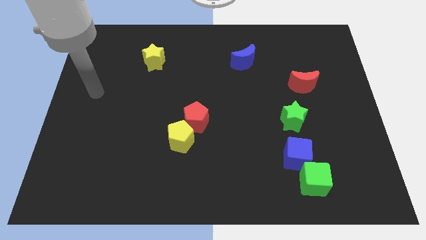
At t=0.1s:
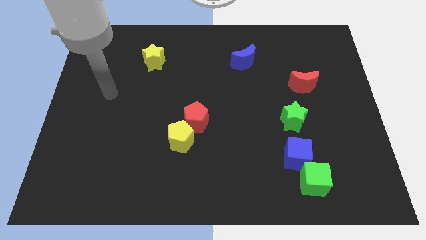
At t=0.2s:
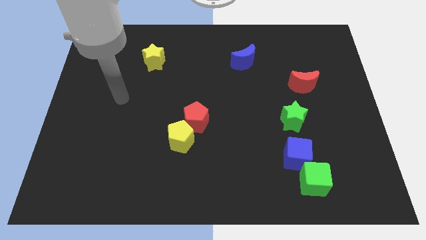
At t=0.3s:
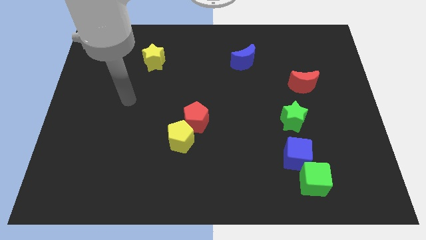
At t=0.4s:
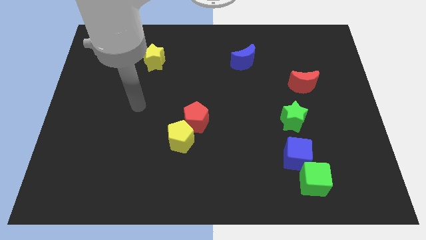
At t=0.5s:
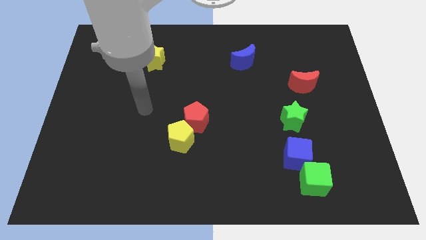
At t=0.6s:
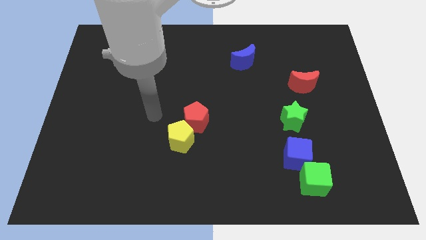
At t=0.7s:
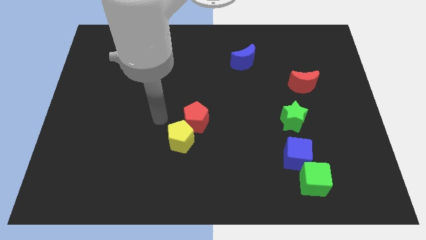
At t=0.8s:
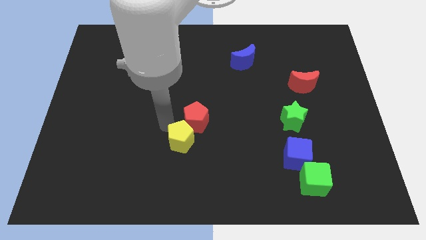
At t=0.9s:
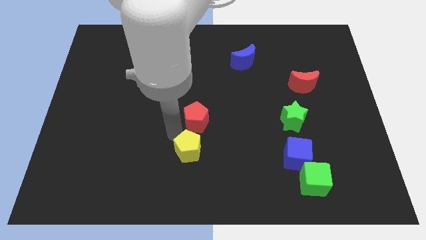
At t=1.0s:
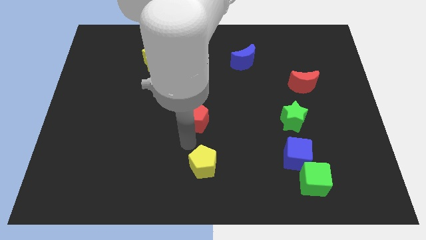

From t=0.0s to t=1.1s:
pull the red pentagon apart from the yellow pentagon

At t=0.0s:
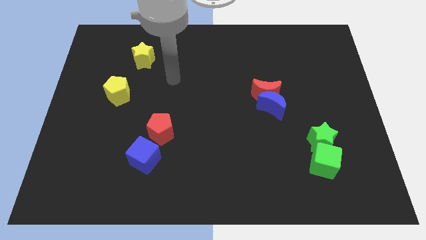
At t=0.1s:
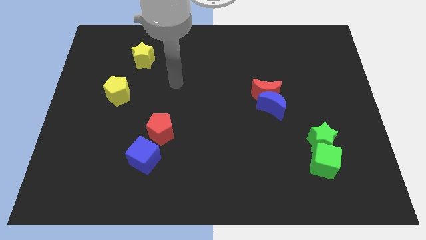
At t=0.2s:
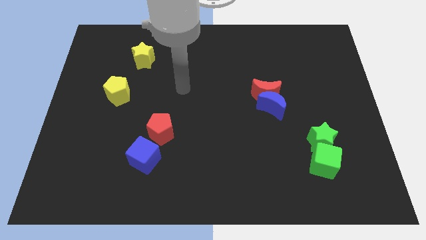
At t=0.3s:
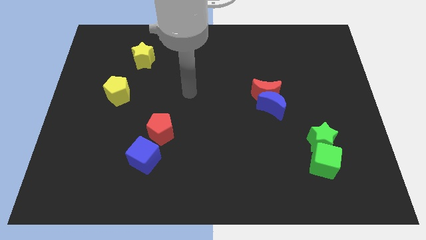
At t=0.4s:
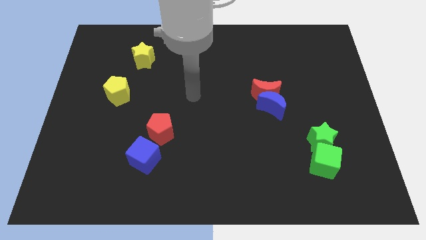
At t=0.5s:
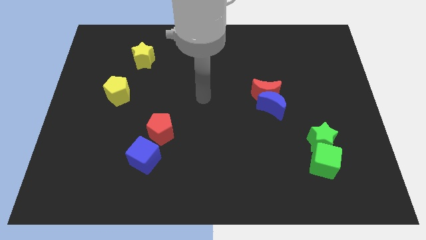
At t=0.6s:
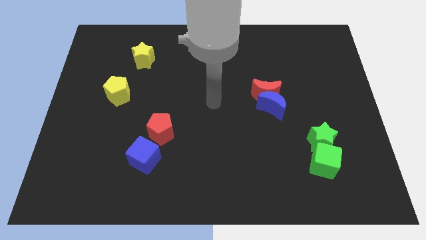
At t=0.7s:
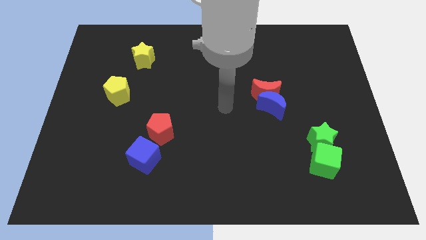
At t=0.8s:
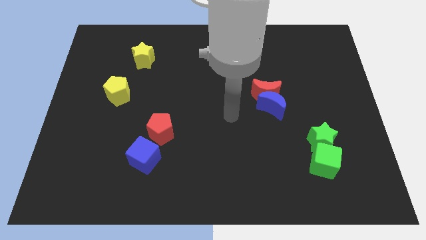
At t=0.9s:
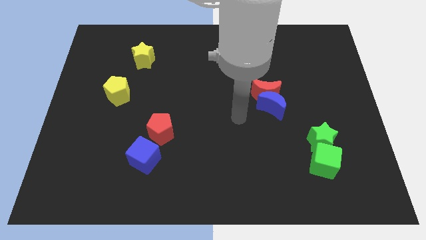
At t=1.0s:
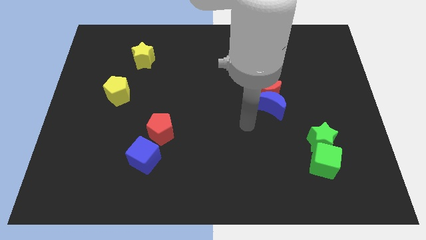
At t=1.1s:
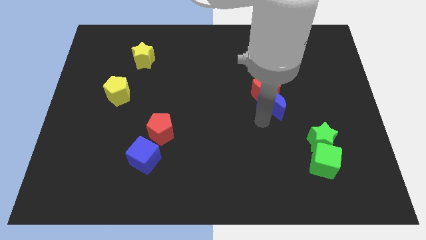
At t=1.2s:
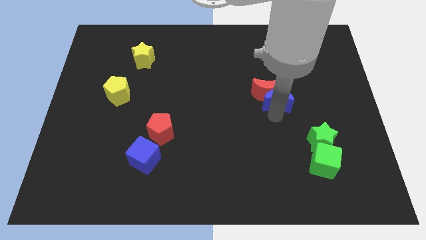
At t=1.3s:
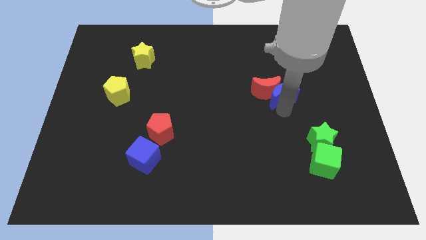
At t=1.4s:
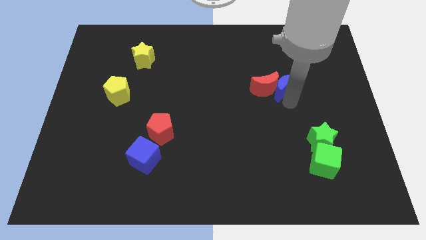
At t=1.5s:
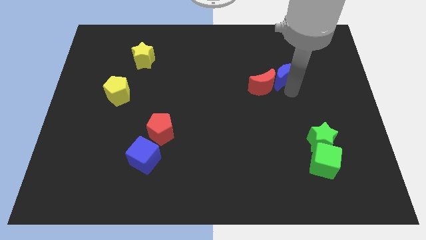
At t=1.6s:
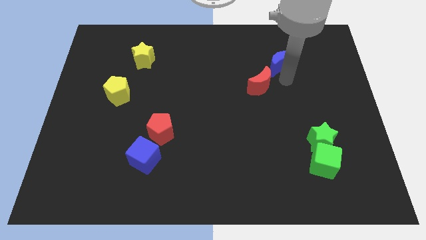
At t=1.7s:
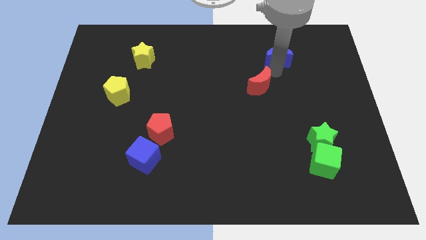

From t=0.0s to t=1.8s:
pull the red moon apart from the blue moon

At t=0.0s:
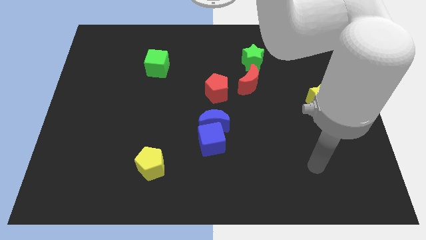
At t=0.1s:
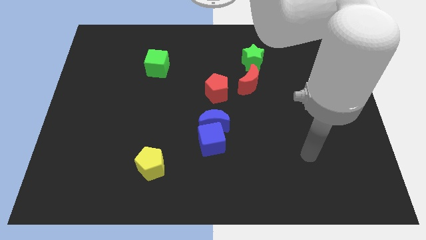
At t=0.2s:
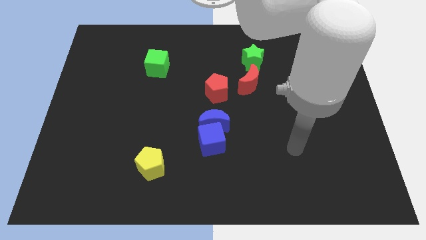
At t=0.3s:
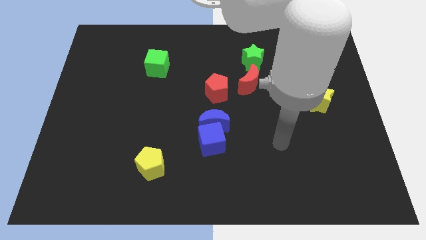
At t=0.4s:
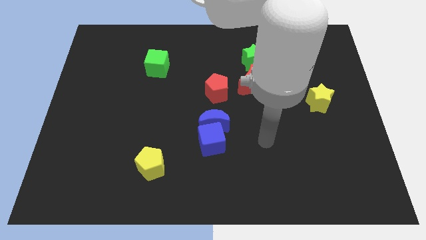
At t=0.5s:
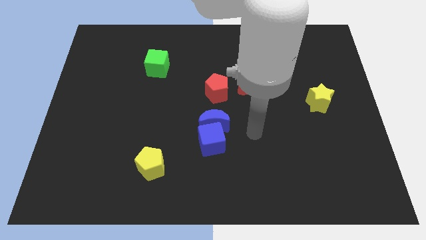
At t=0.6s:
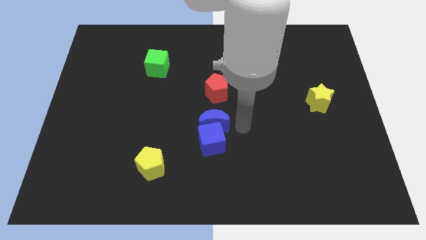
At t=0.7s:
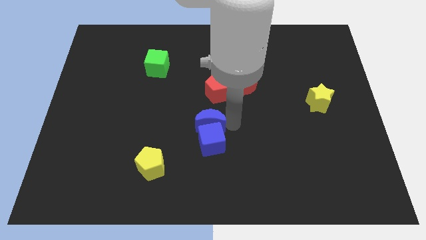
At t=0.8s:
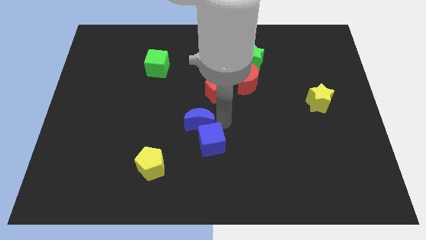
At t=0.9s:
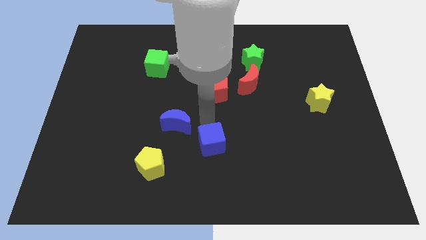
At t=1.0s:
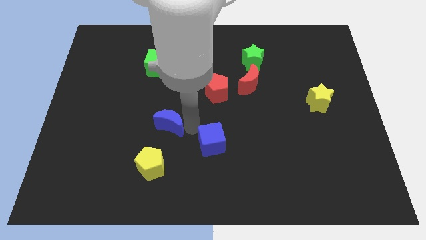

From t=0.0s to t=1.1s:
separate the blue cube from the blue moon

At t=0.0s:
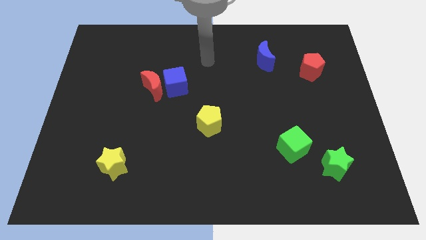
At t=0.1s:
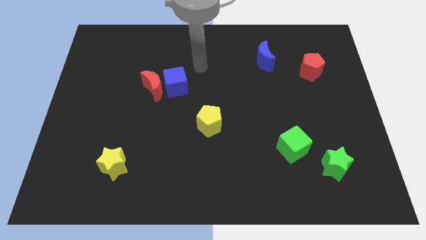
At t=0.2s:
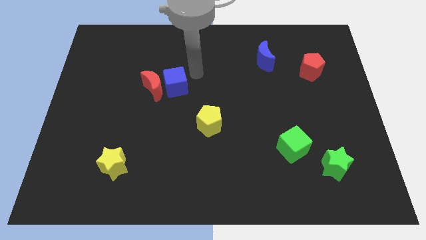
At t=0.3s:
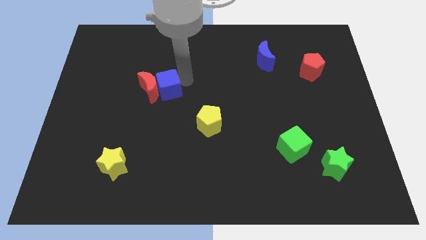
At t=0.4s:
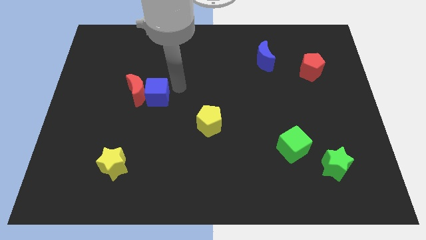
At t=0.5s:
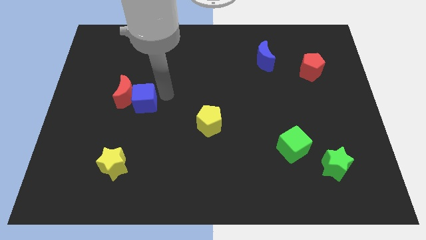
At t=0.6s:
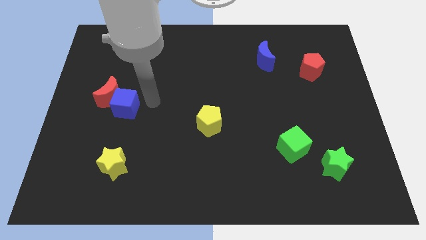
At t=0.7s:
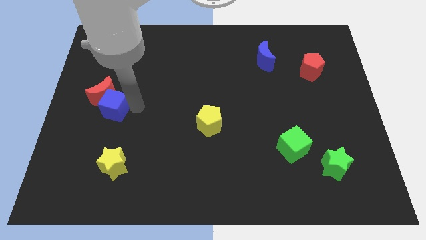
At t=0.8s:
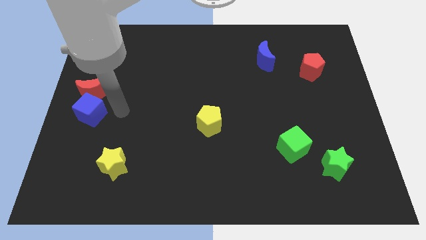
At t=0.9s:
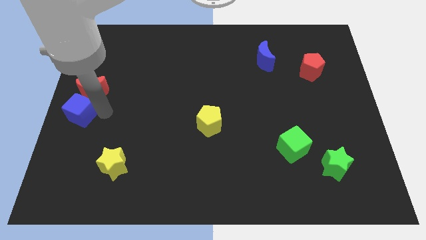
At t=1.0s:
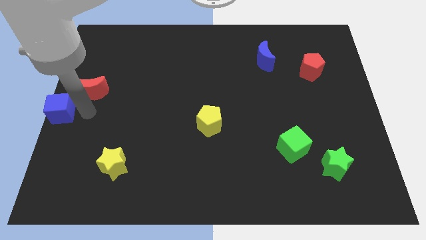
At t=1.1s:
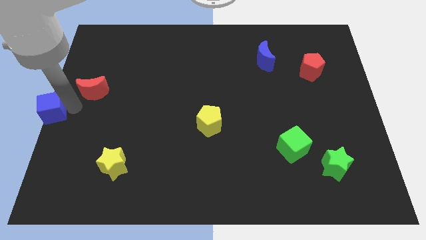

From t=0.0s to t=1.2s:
pull the red moon apart from the blue cube

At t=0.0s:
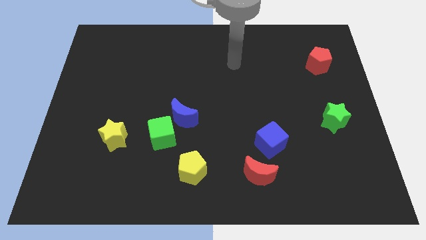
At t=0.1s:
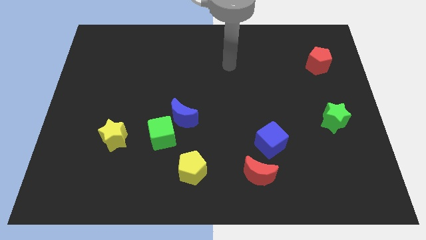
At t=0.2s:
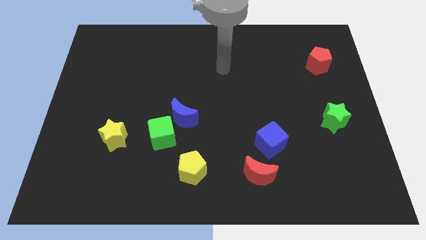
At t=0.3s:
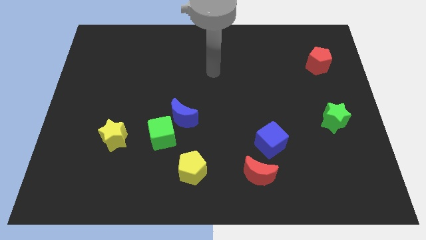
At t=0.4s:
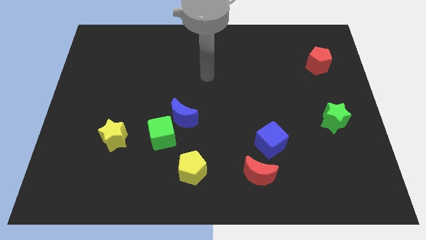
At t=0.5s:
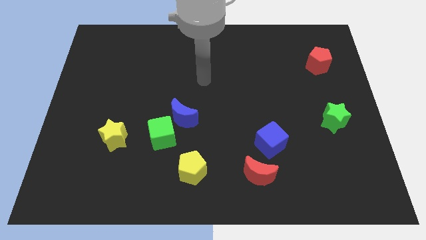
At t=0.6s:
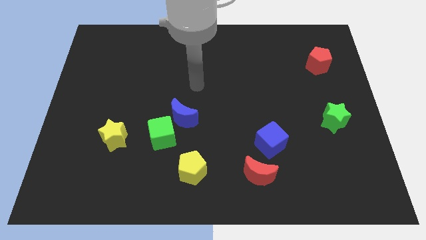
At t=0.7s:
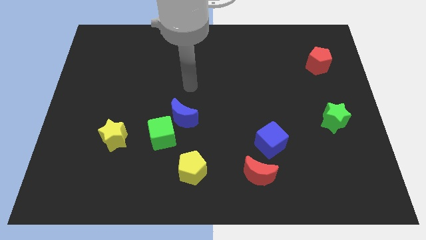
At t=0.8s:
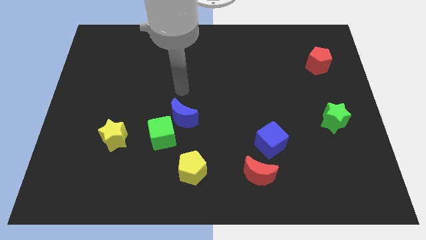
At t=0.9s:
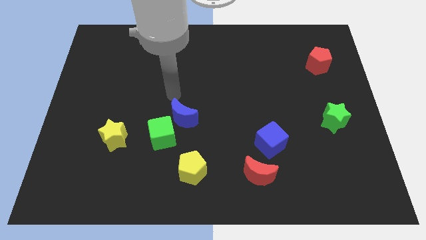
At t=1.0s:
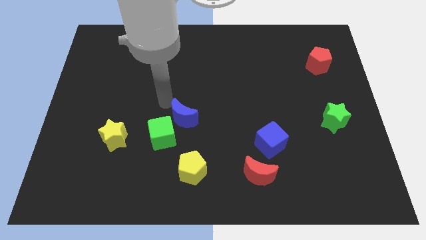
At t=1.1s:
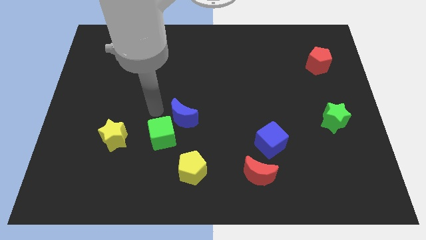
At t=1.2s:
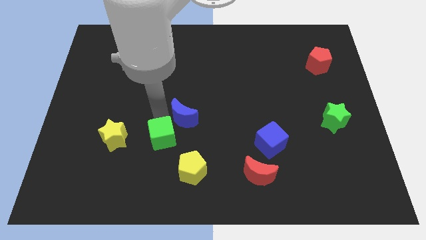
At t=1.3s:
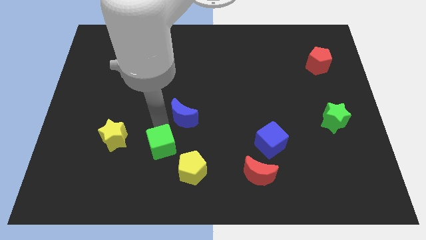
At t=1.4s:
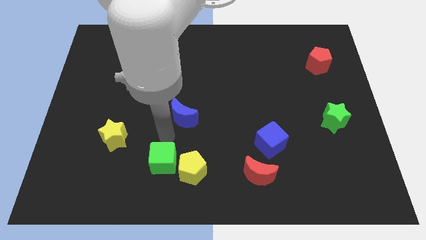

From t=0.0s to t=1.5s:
move the blue moon away from the green cube

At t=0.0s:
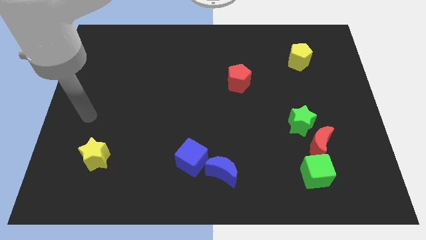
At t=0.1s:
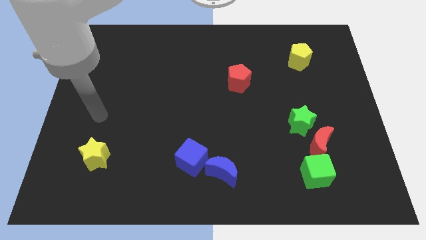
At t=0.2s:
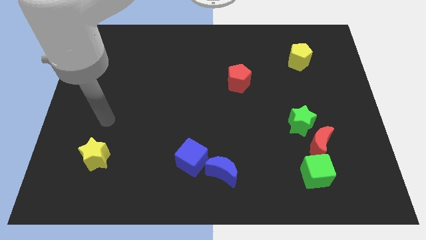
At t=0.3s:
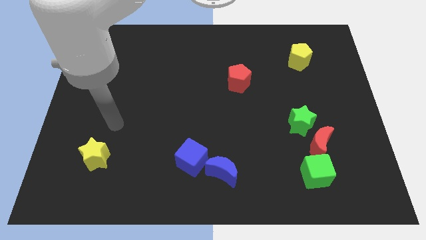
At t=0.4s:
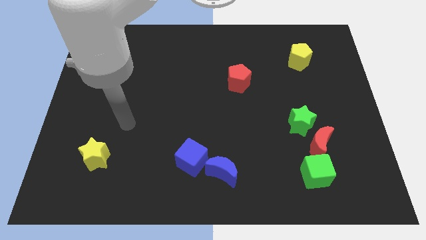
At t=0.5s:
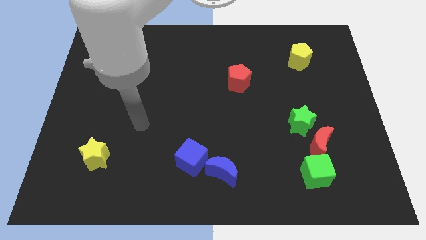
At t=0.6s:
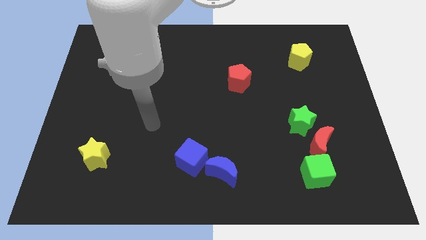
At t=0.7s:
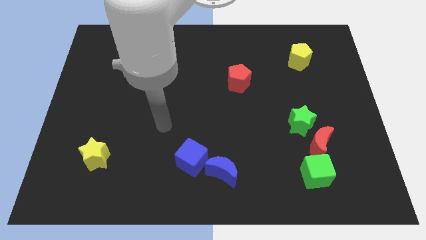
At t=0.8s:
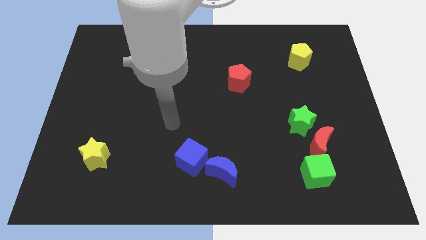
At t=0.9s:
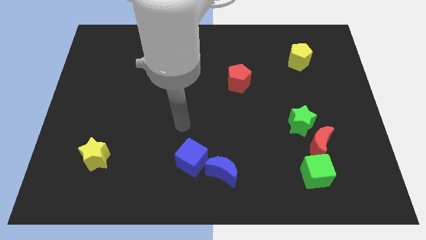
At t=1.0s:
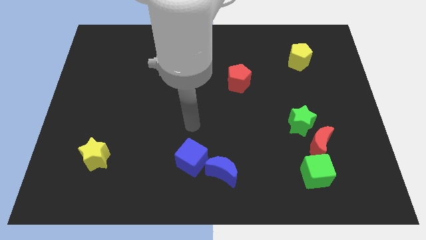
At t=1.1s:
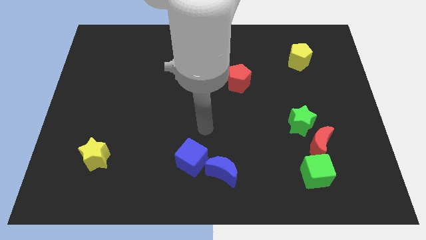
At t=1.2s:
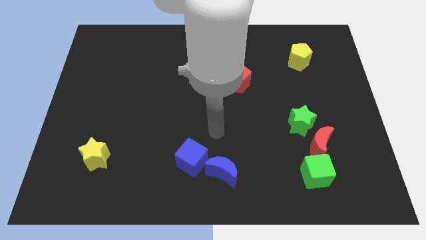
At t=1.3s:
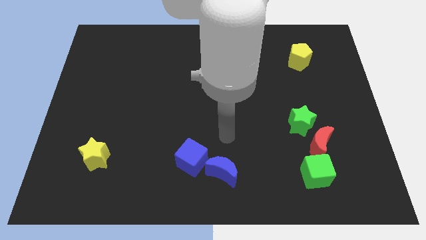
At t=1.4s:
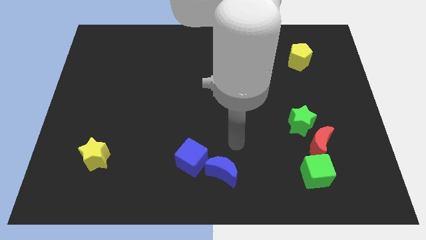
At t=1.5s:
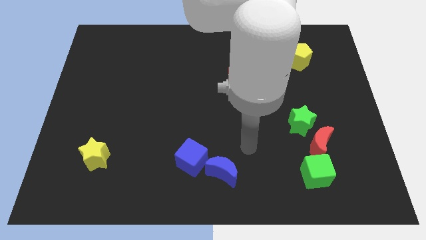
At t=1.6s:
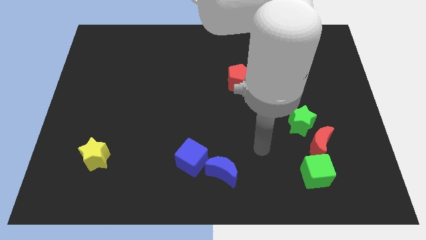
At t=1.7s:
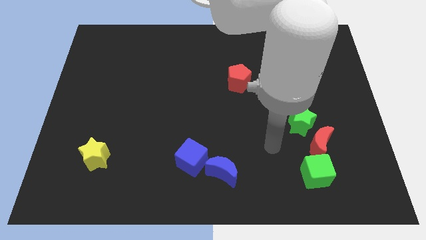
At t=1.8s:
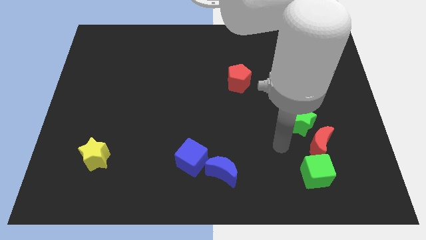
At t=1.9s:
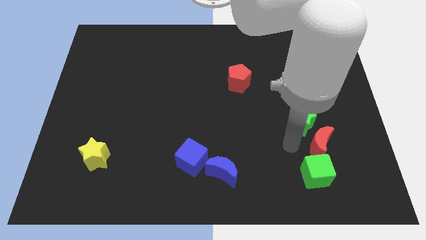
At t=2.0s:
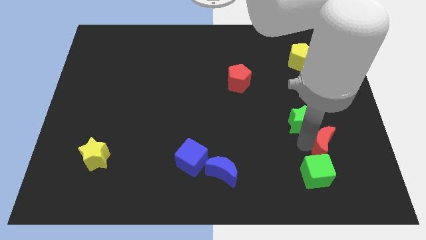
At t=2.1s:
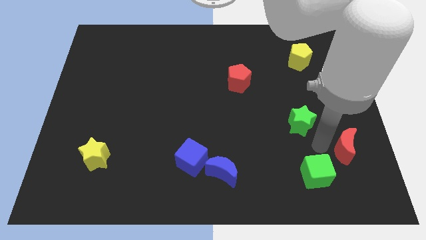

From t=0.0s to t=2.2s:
move the green star away from the red moon

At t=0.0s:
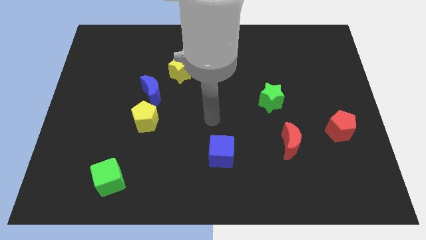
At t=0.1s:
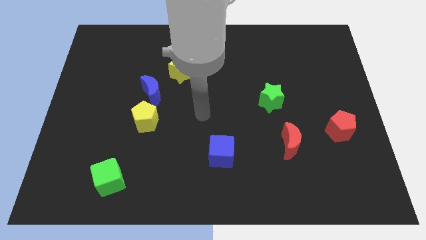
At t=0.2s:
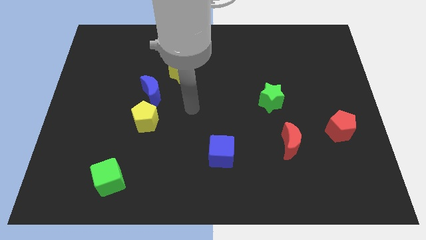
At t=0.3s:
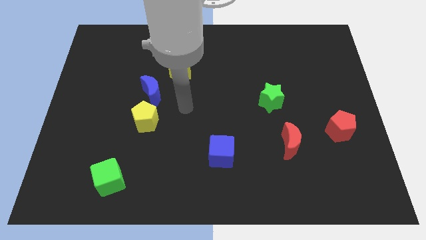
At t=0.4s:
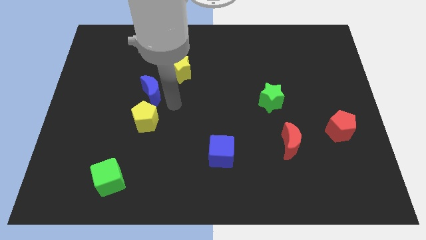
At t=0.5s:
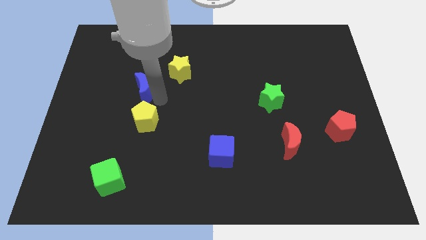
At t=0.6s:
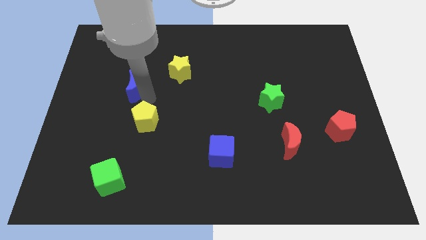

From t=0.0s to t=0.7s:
pull the yellow pentagon apart from the blue moon
